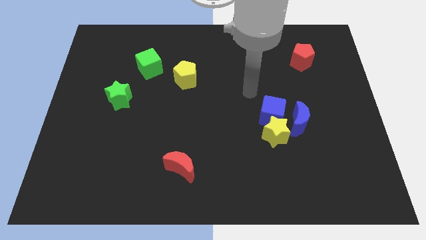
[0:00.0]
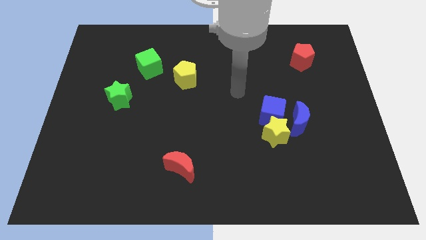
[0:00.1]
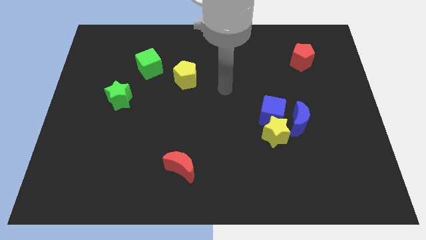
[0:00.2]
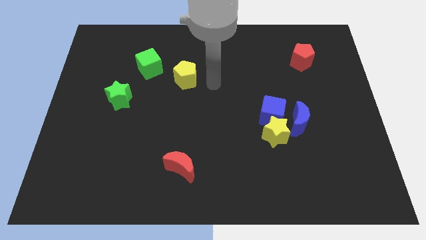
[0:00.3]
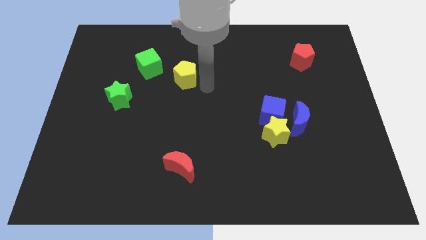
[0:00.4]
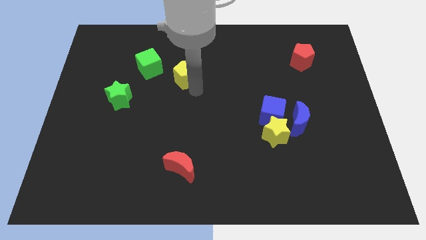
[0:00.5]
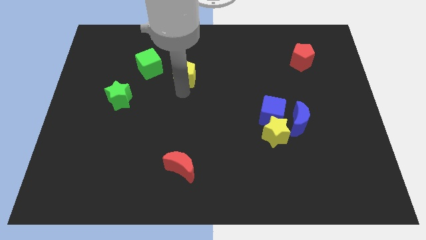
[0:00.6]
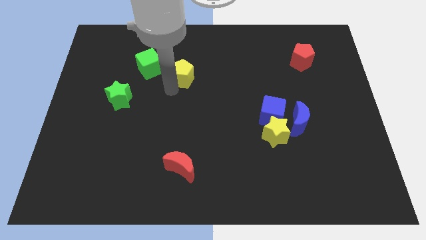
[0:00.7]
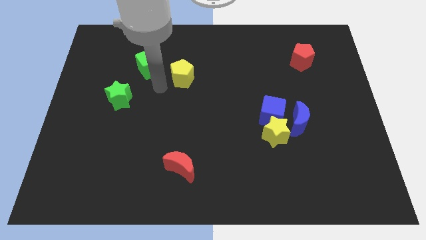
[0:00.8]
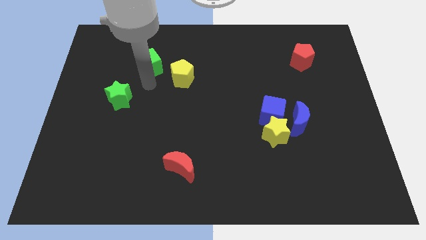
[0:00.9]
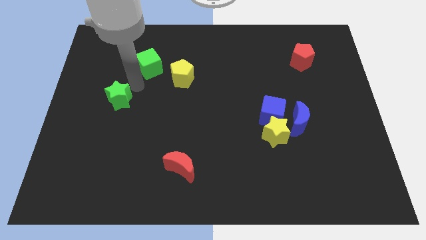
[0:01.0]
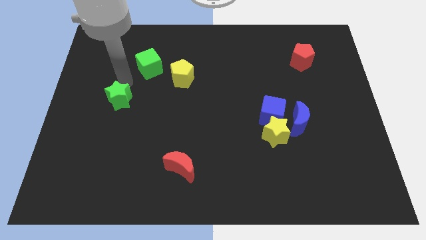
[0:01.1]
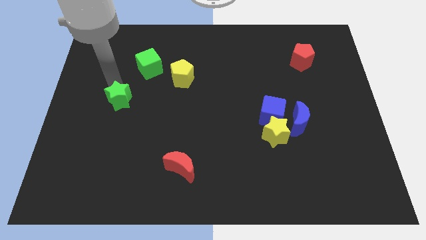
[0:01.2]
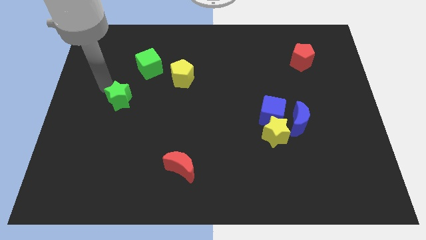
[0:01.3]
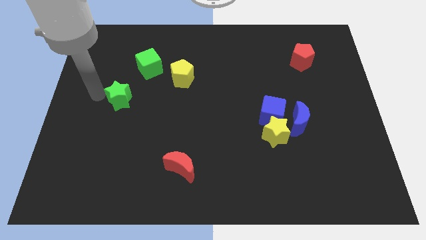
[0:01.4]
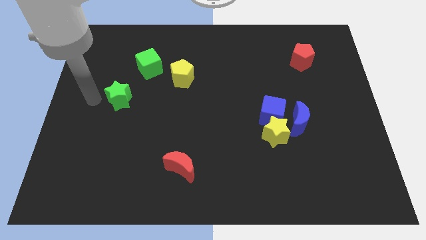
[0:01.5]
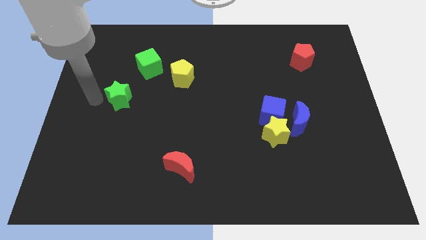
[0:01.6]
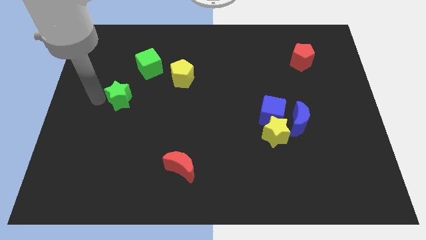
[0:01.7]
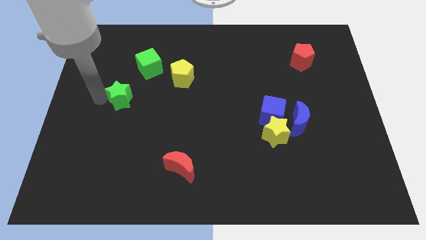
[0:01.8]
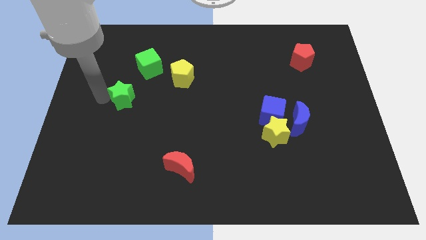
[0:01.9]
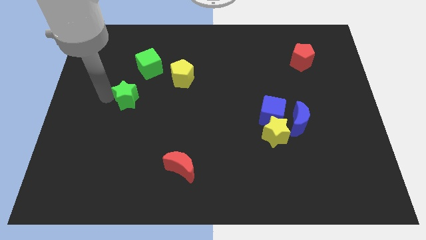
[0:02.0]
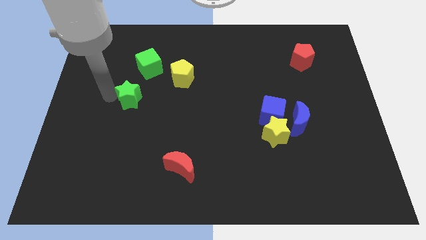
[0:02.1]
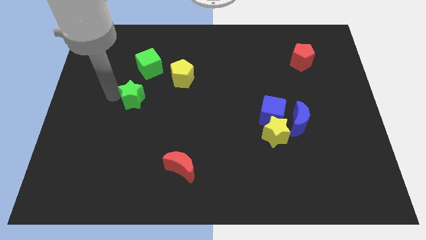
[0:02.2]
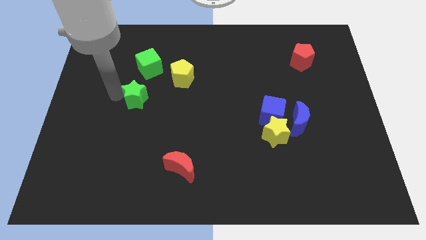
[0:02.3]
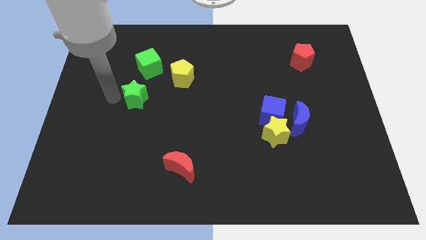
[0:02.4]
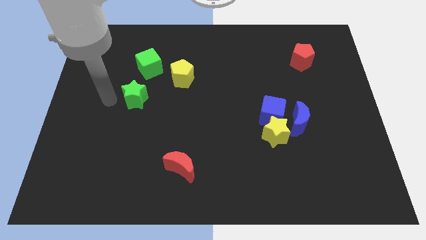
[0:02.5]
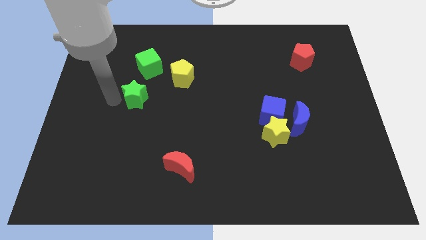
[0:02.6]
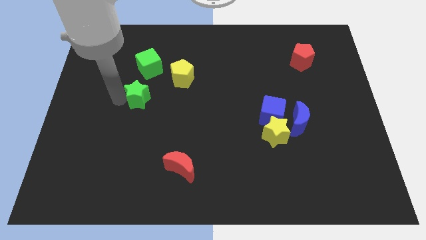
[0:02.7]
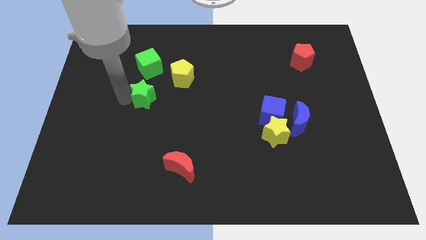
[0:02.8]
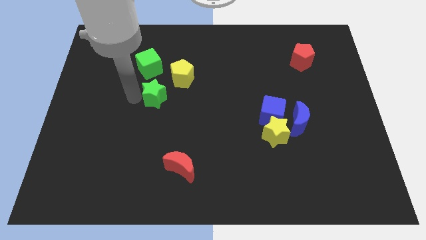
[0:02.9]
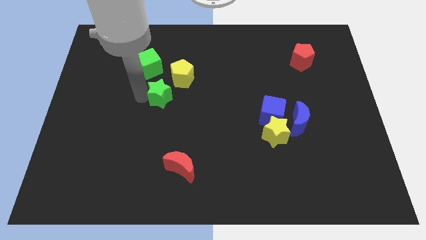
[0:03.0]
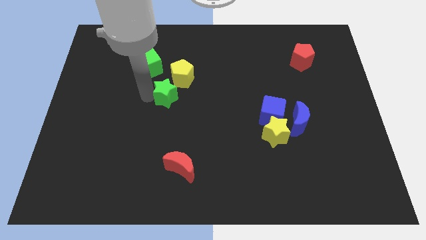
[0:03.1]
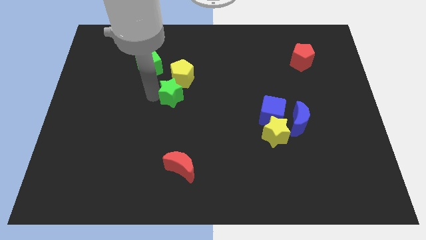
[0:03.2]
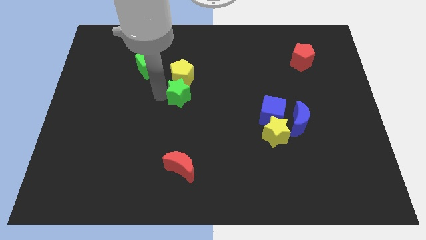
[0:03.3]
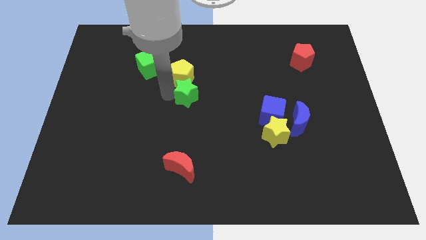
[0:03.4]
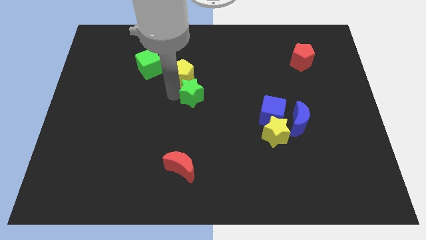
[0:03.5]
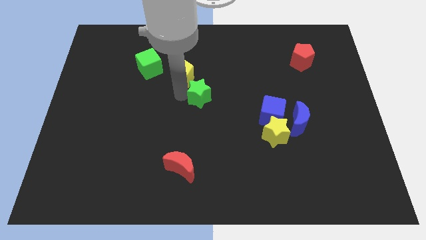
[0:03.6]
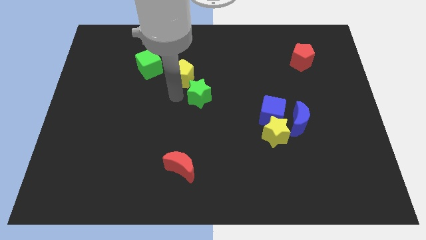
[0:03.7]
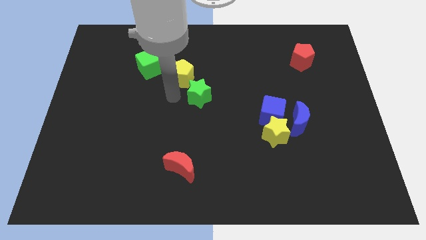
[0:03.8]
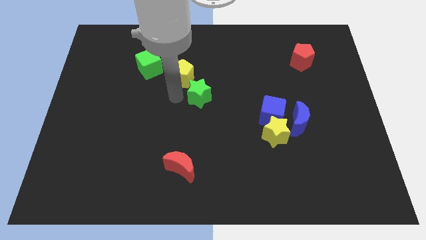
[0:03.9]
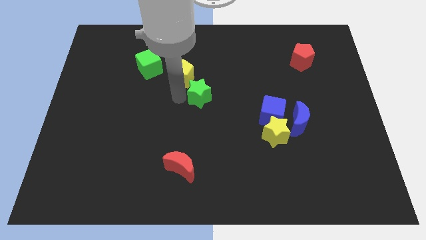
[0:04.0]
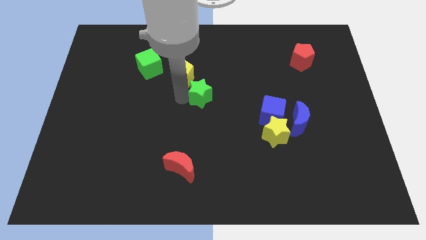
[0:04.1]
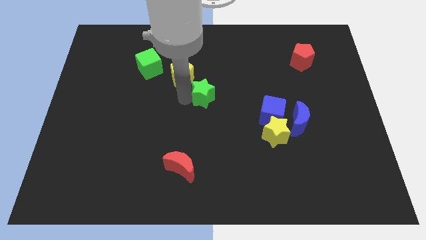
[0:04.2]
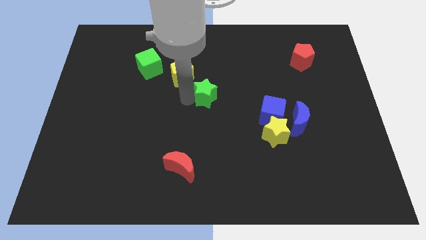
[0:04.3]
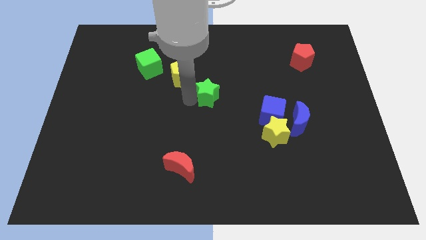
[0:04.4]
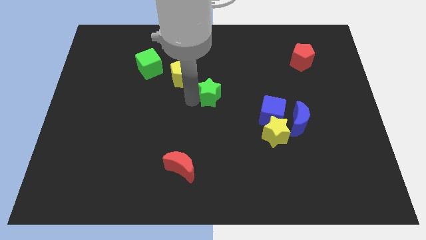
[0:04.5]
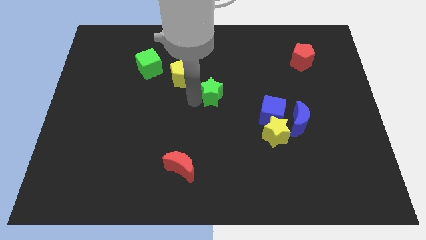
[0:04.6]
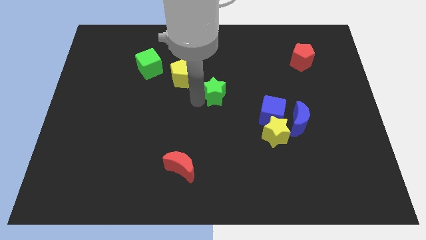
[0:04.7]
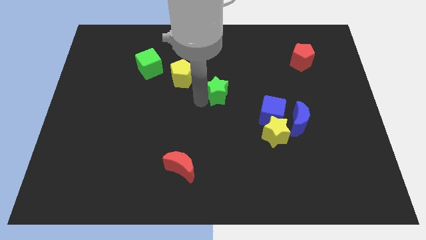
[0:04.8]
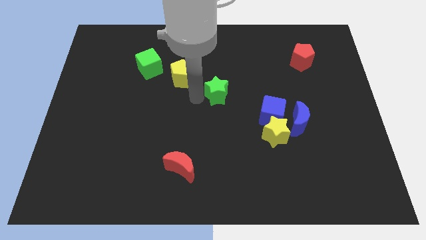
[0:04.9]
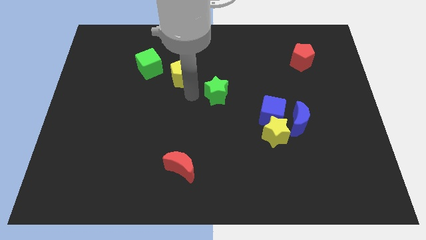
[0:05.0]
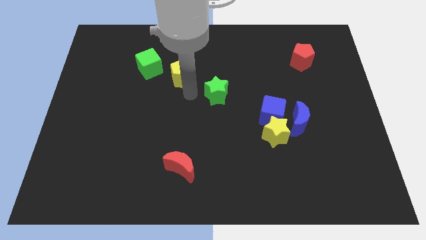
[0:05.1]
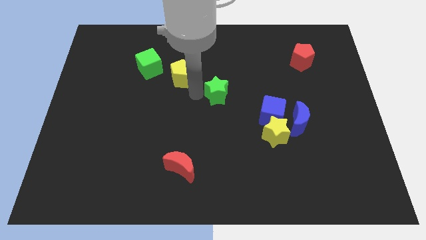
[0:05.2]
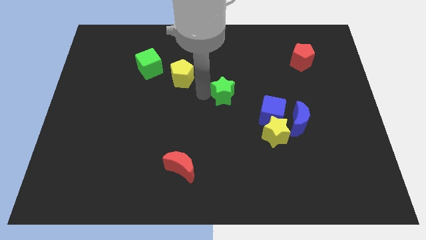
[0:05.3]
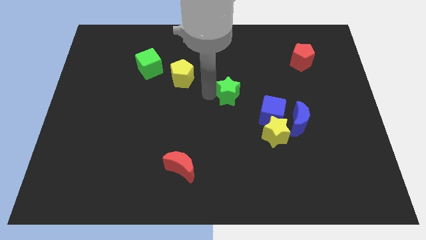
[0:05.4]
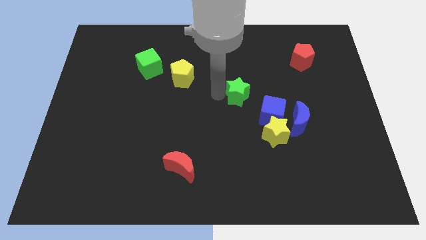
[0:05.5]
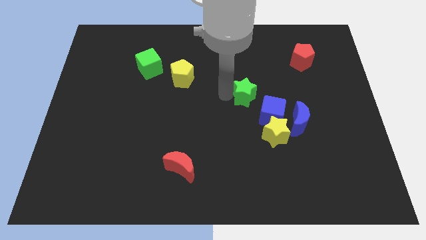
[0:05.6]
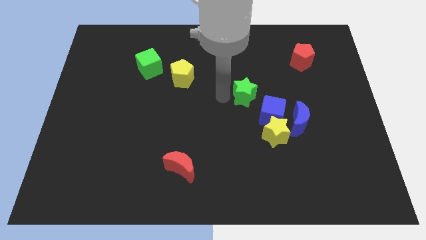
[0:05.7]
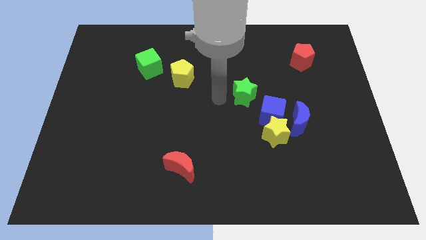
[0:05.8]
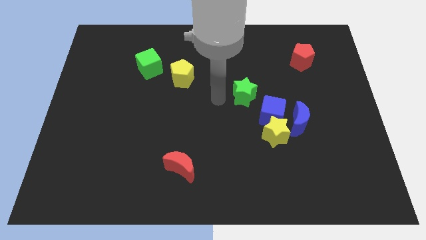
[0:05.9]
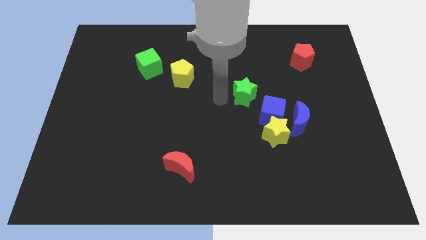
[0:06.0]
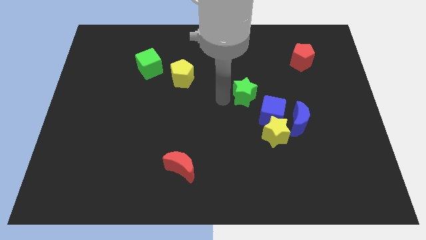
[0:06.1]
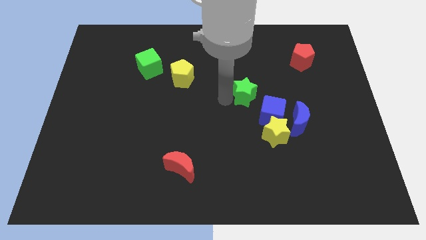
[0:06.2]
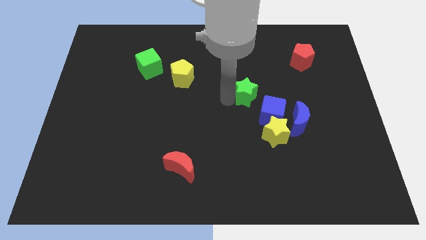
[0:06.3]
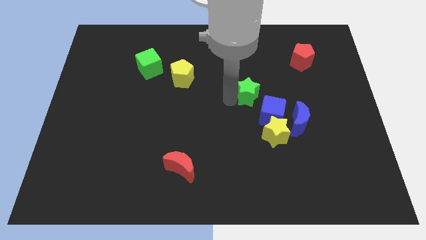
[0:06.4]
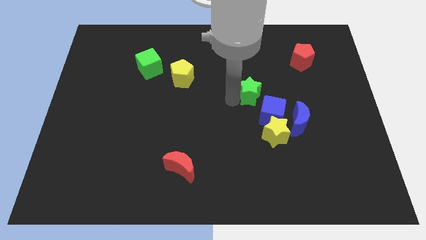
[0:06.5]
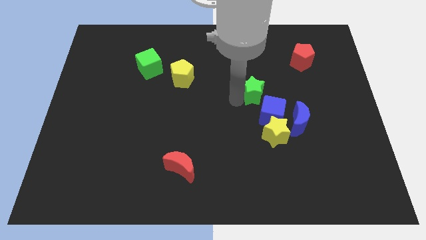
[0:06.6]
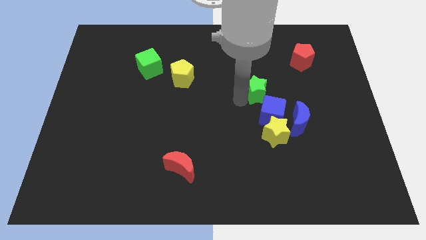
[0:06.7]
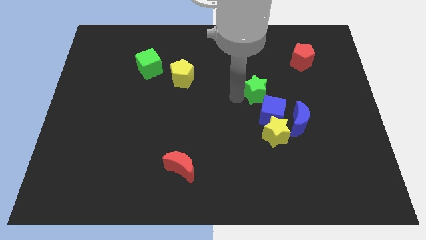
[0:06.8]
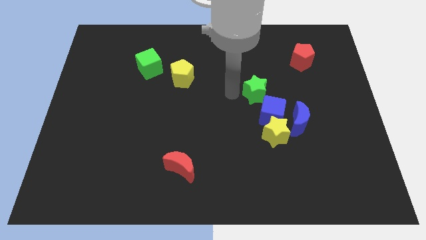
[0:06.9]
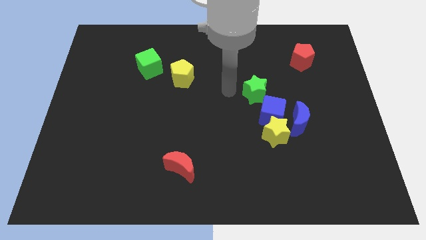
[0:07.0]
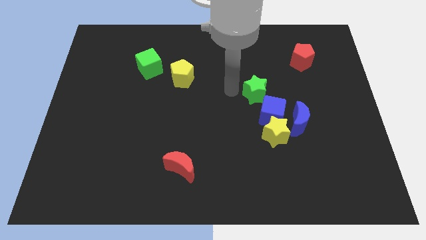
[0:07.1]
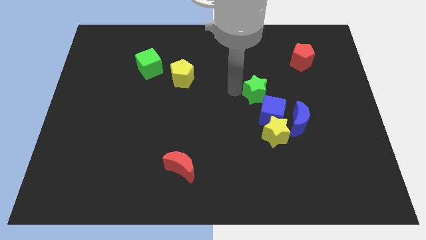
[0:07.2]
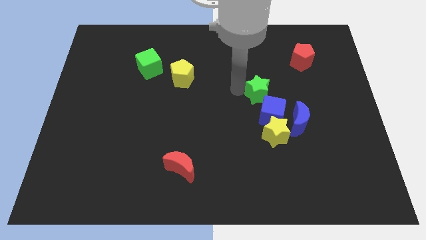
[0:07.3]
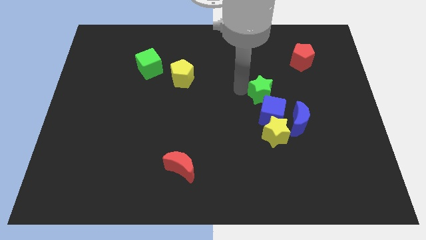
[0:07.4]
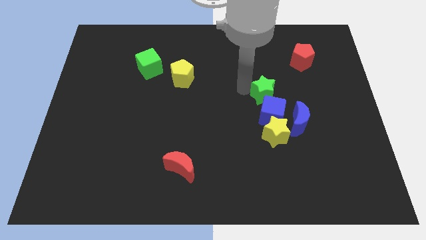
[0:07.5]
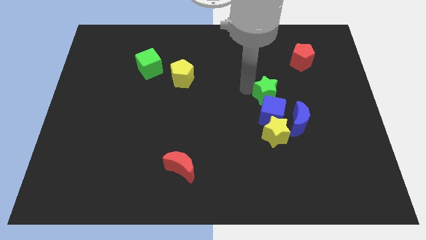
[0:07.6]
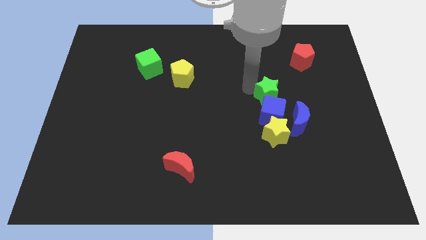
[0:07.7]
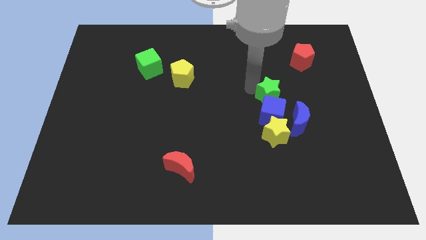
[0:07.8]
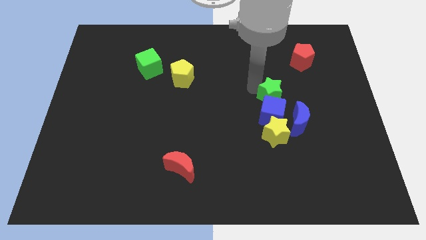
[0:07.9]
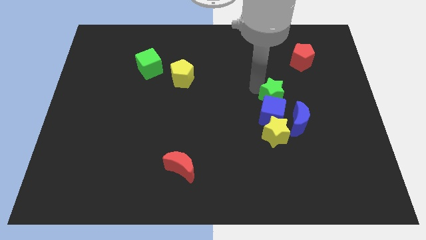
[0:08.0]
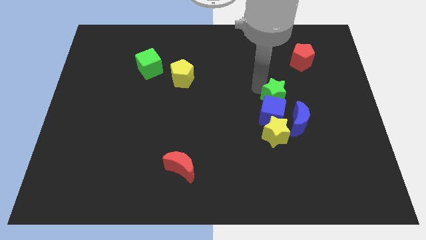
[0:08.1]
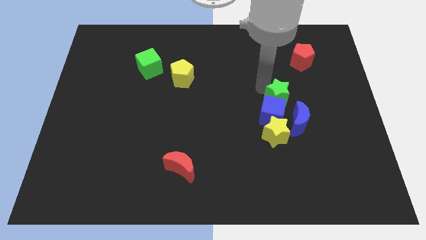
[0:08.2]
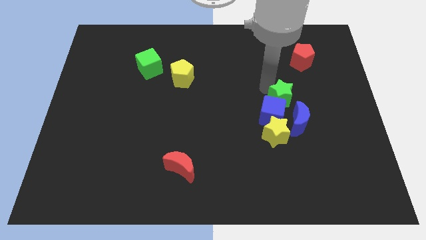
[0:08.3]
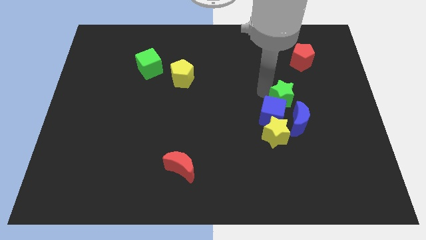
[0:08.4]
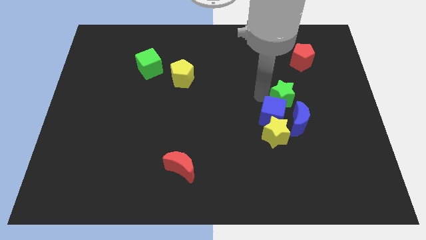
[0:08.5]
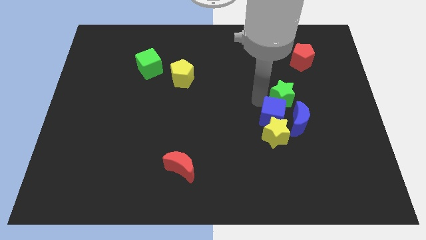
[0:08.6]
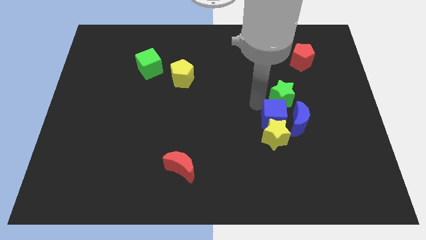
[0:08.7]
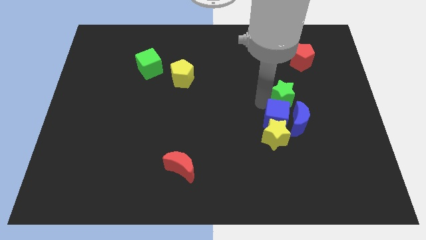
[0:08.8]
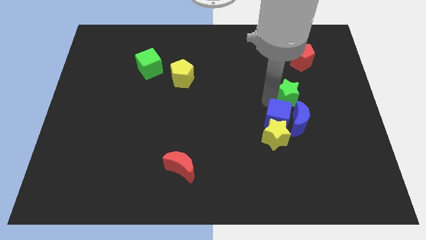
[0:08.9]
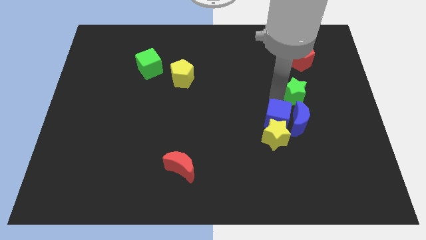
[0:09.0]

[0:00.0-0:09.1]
move the green star to the bottom of the red pentagon
